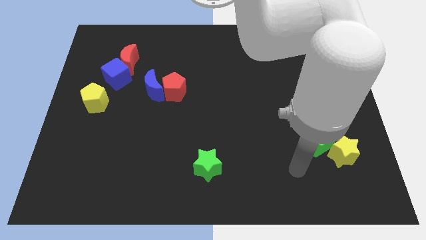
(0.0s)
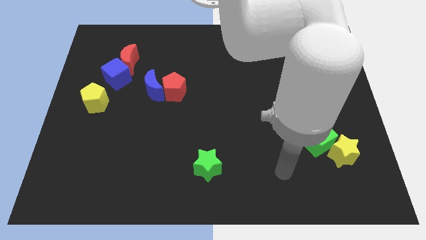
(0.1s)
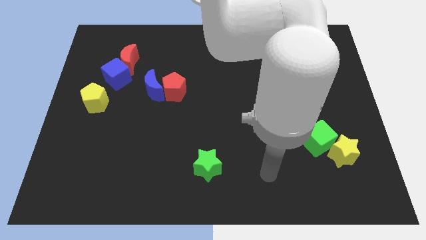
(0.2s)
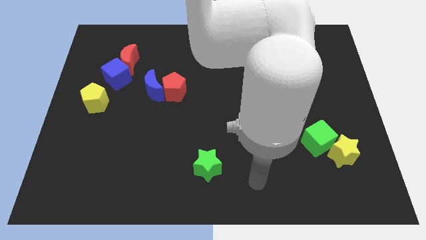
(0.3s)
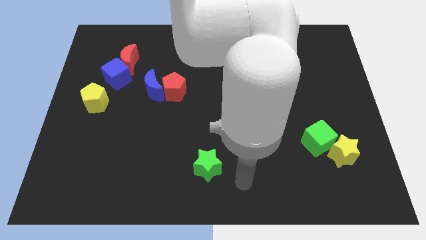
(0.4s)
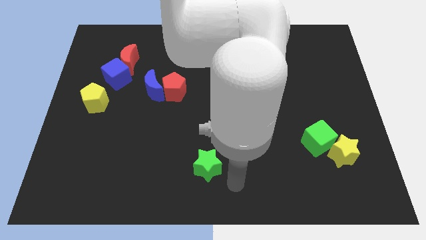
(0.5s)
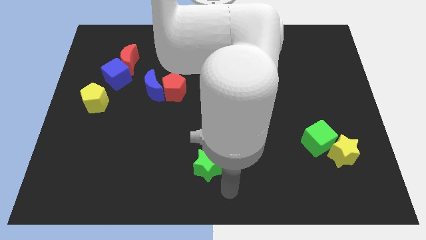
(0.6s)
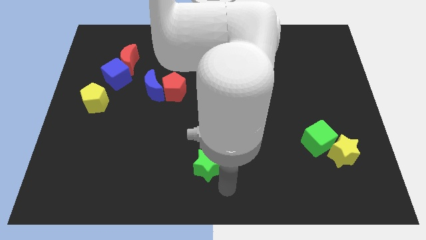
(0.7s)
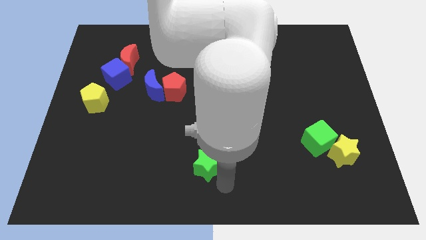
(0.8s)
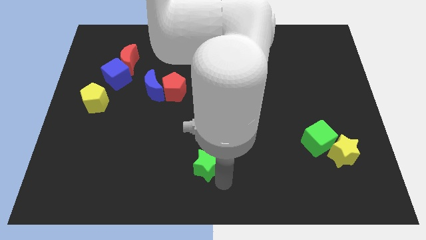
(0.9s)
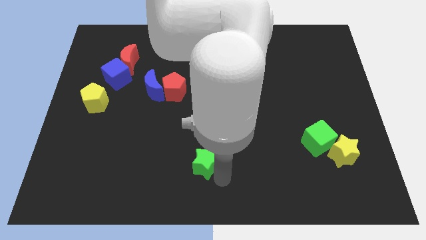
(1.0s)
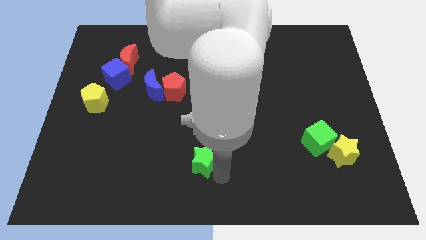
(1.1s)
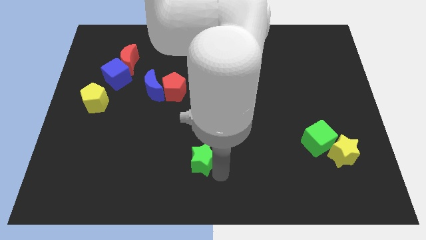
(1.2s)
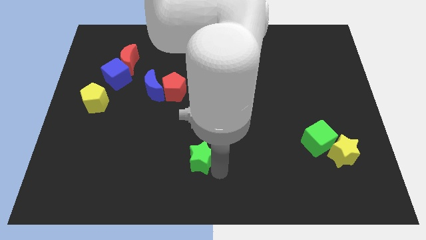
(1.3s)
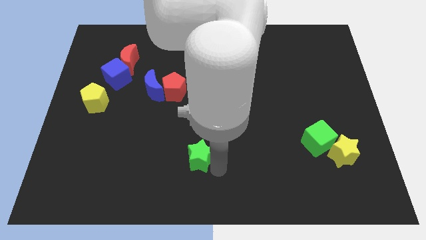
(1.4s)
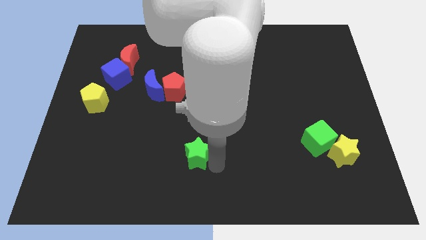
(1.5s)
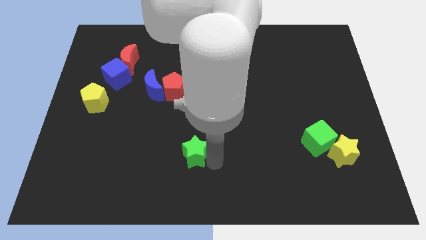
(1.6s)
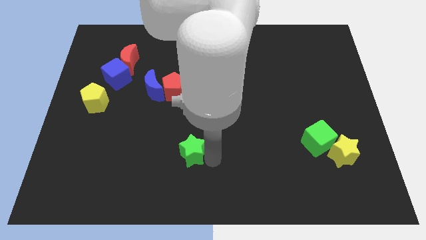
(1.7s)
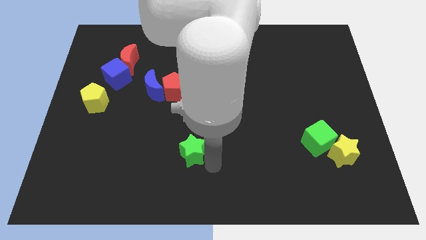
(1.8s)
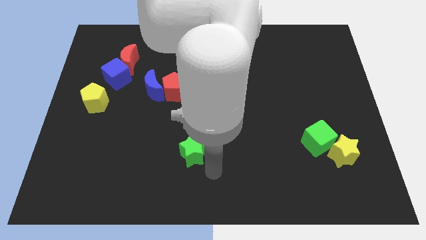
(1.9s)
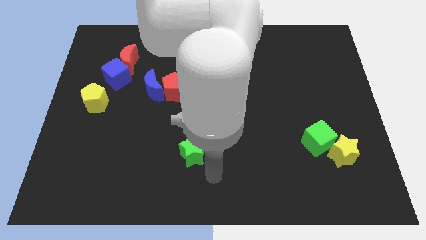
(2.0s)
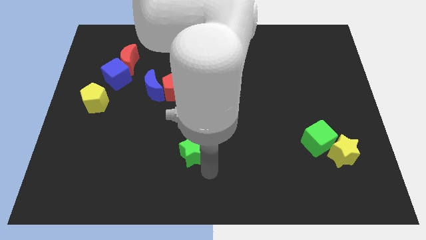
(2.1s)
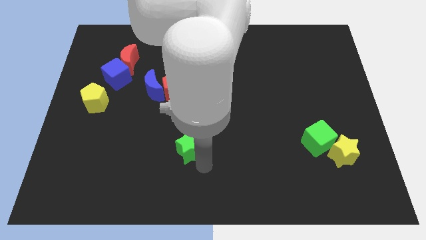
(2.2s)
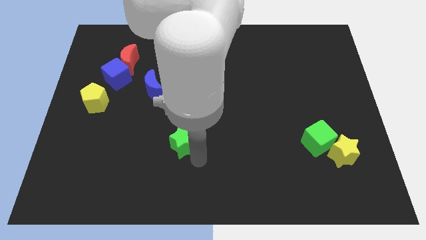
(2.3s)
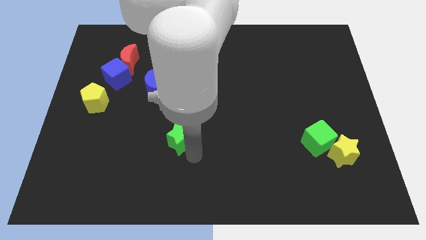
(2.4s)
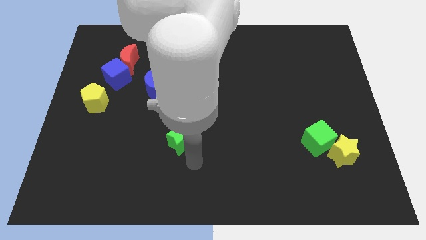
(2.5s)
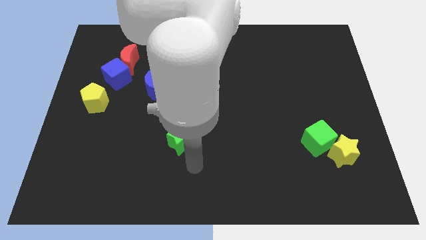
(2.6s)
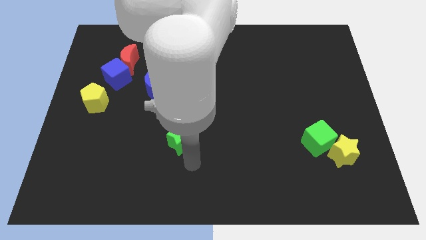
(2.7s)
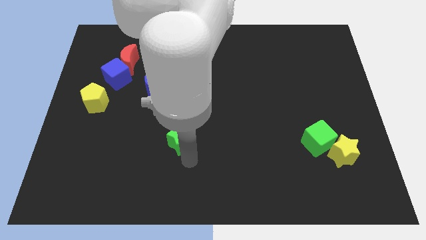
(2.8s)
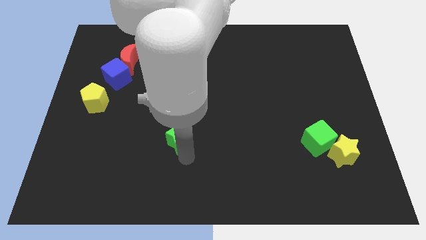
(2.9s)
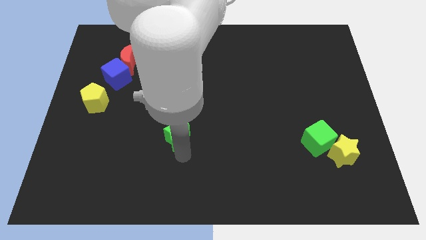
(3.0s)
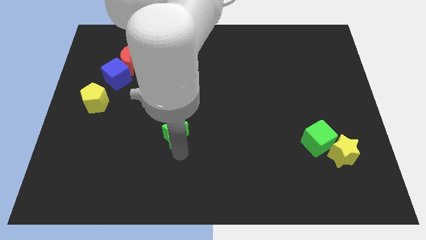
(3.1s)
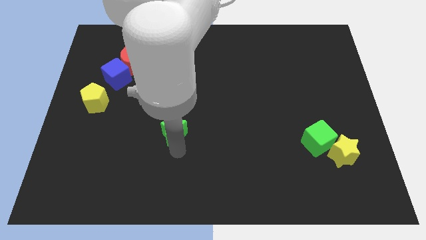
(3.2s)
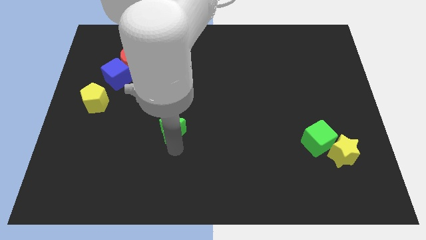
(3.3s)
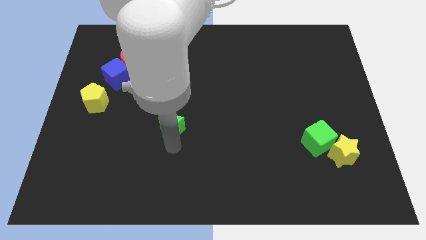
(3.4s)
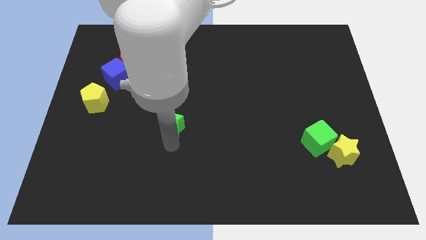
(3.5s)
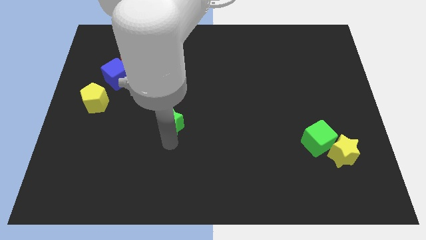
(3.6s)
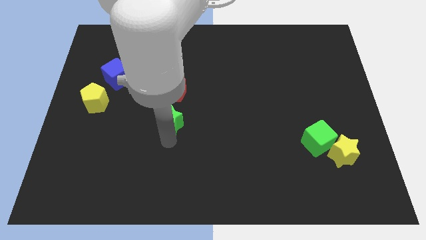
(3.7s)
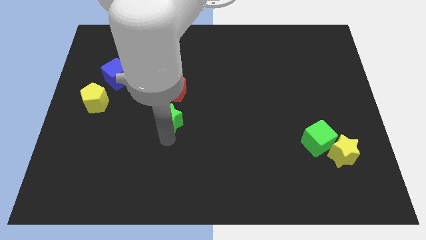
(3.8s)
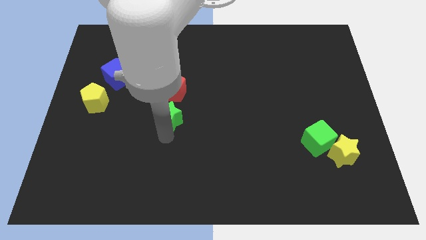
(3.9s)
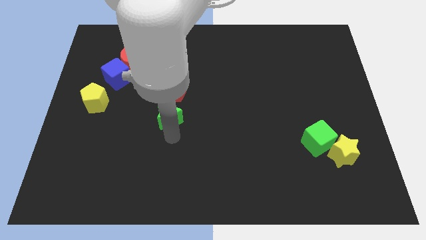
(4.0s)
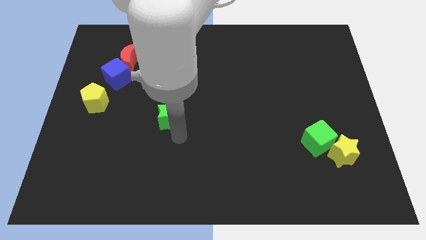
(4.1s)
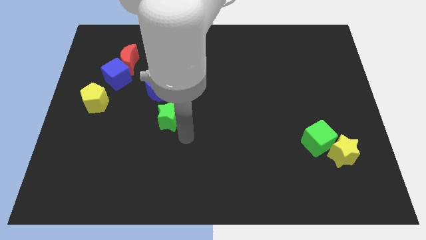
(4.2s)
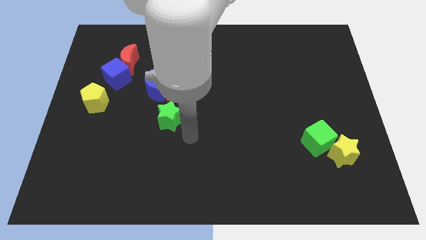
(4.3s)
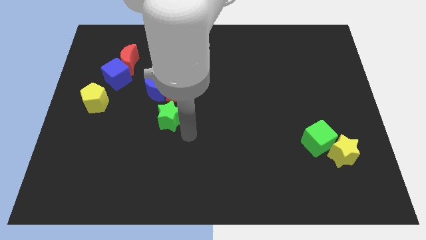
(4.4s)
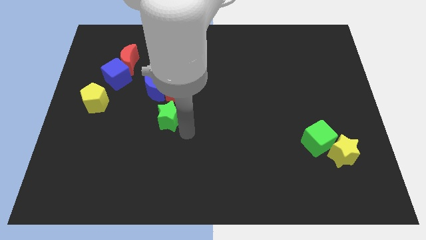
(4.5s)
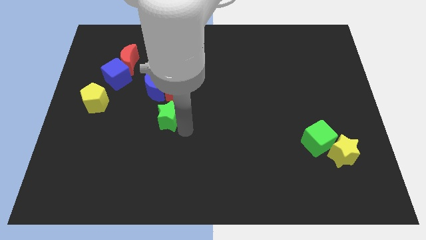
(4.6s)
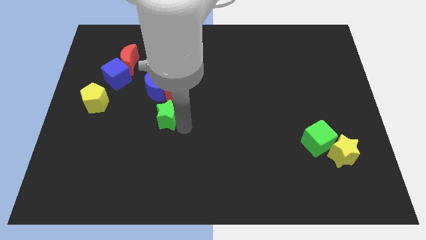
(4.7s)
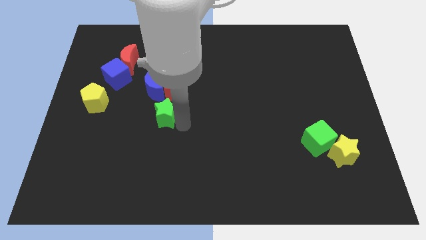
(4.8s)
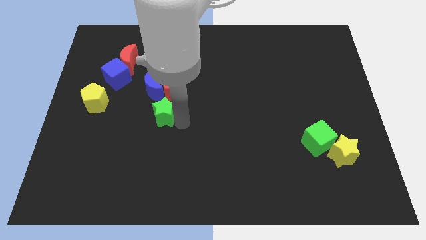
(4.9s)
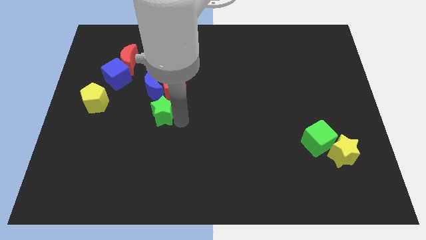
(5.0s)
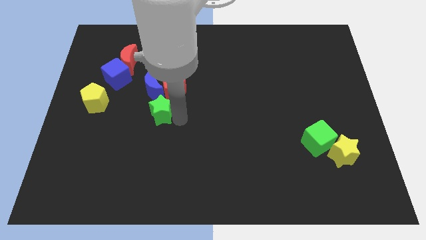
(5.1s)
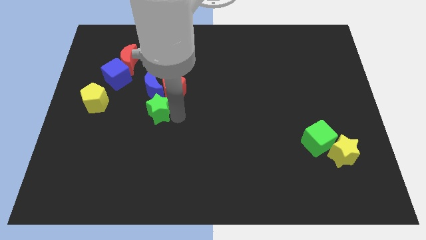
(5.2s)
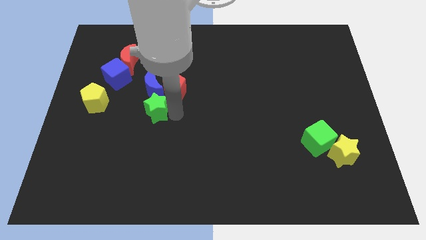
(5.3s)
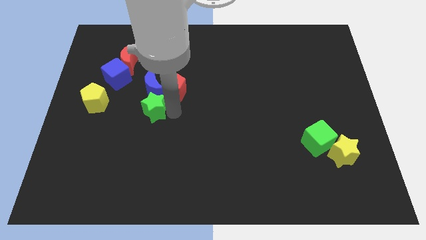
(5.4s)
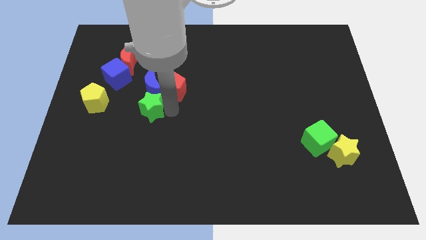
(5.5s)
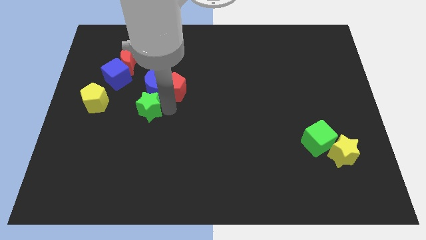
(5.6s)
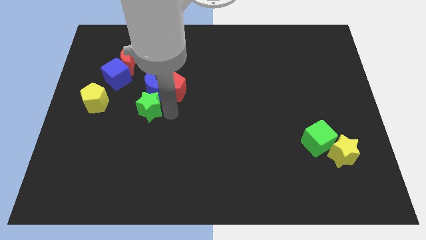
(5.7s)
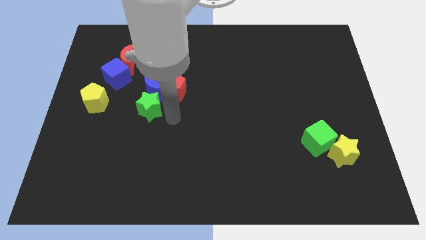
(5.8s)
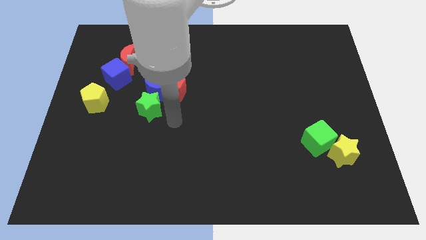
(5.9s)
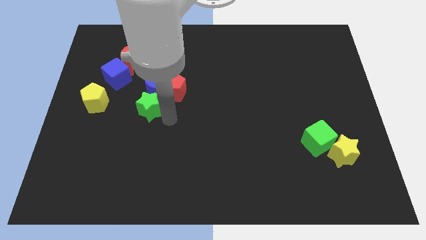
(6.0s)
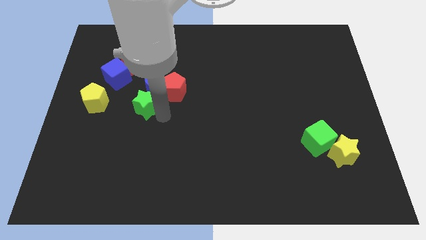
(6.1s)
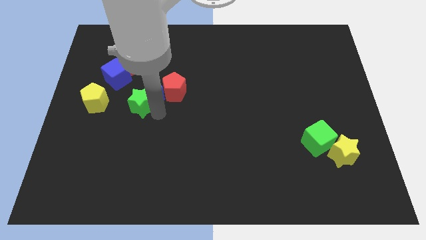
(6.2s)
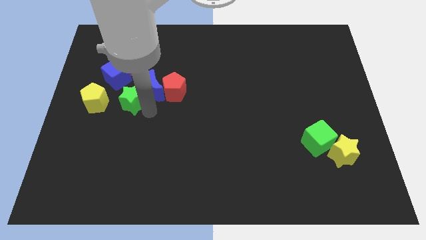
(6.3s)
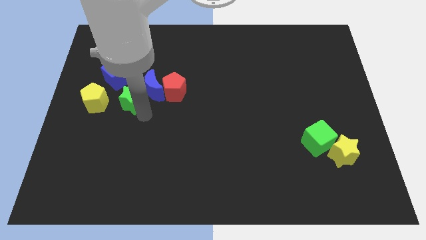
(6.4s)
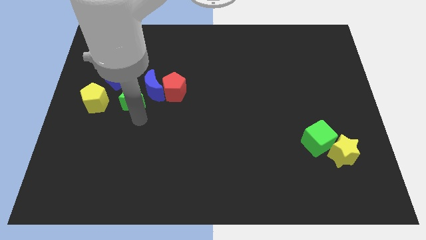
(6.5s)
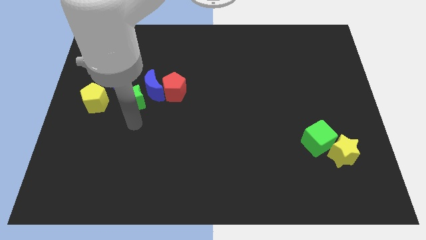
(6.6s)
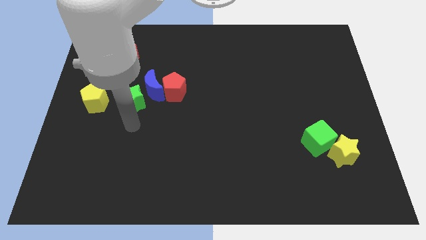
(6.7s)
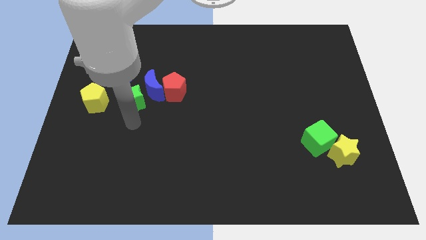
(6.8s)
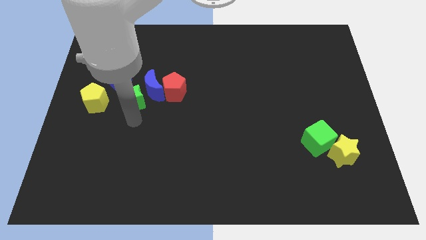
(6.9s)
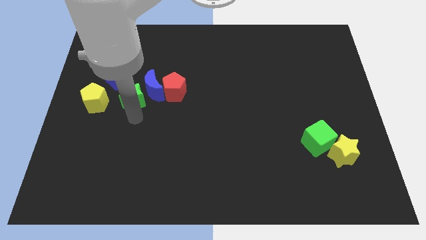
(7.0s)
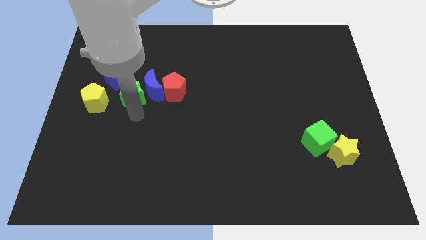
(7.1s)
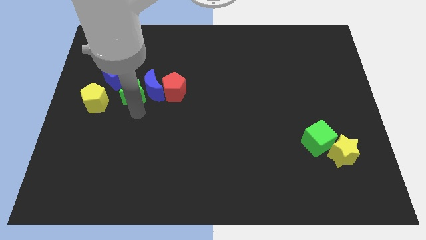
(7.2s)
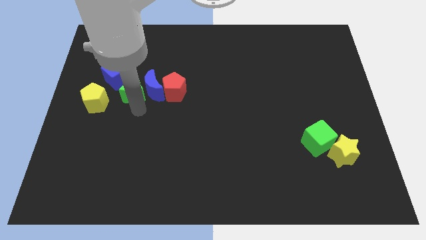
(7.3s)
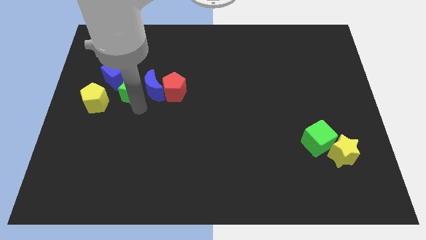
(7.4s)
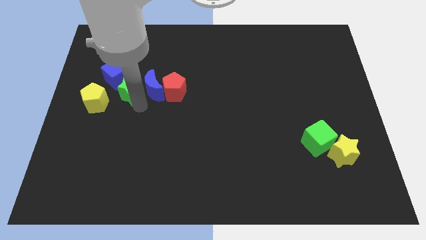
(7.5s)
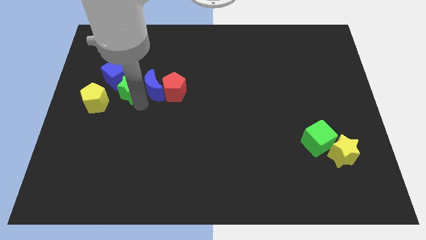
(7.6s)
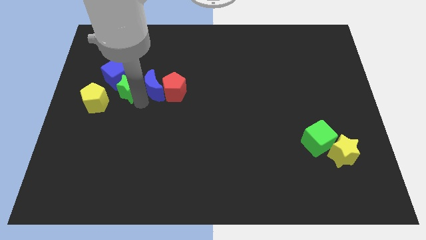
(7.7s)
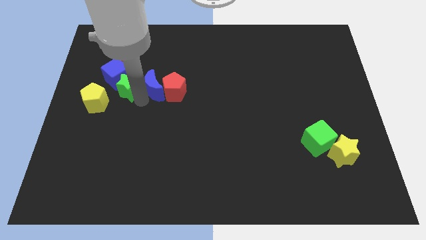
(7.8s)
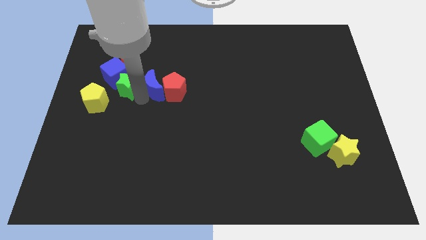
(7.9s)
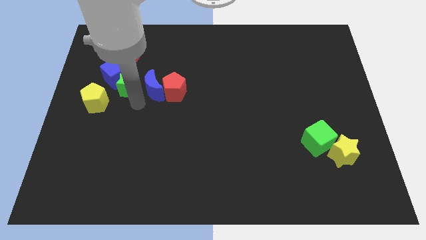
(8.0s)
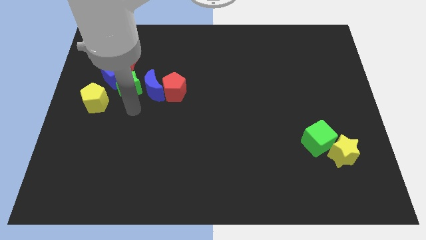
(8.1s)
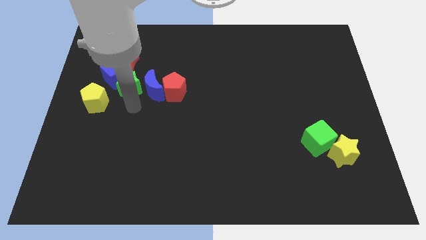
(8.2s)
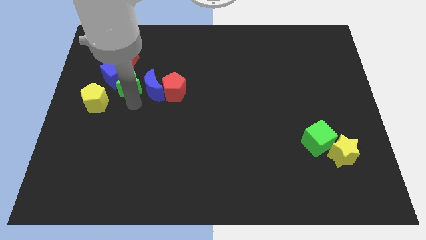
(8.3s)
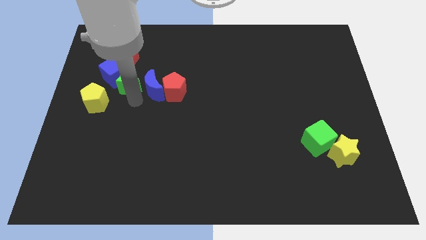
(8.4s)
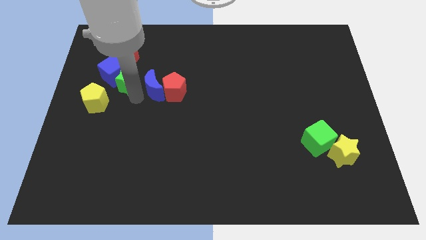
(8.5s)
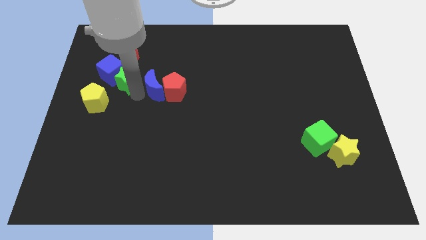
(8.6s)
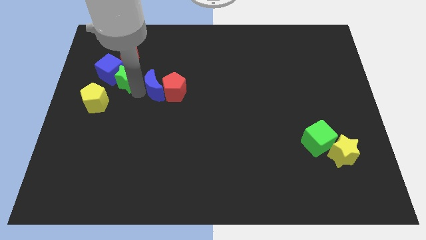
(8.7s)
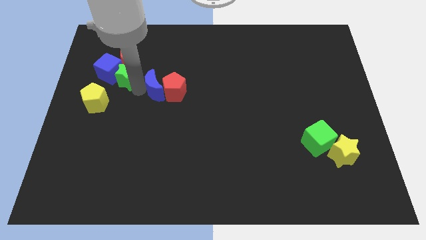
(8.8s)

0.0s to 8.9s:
slide the green star to the red moon
